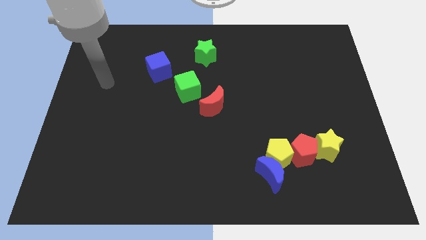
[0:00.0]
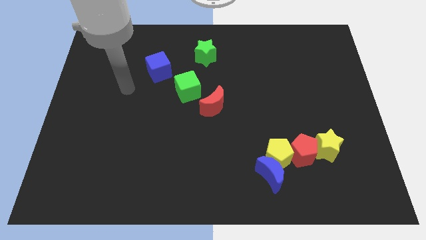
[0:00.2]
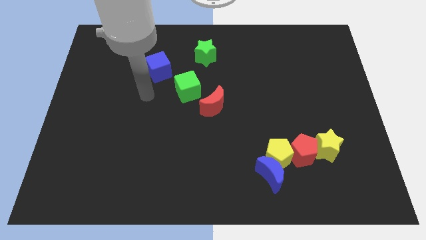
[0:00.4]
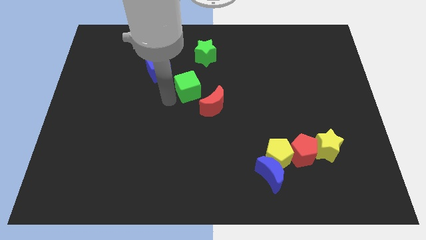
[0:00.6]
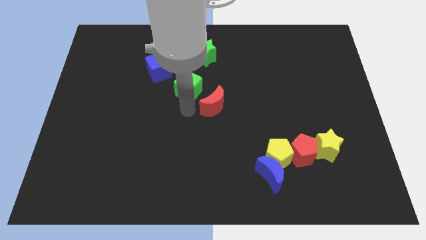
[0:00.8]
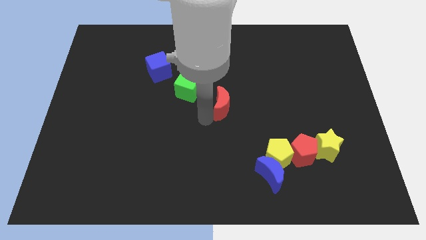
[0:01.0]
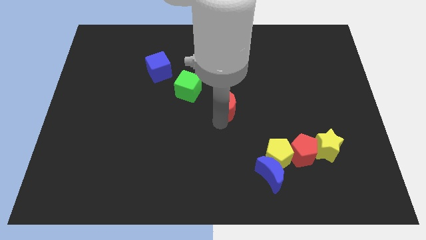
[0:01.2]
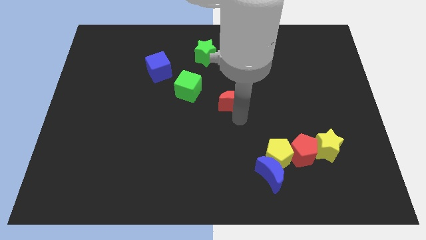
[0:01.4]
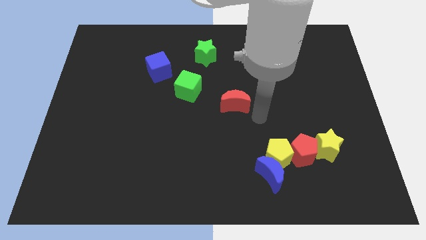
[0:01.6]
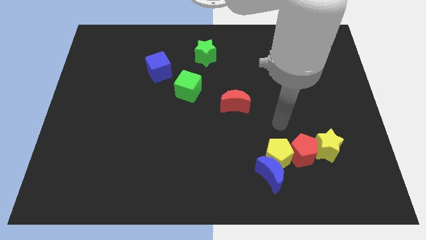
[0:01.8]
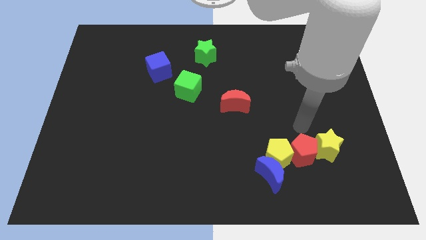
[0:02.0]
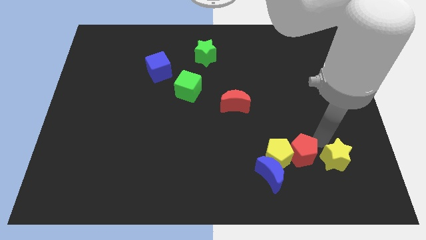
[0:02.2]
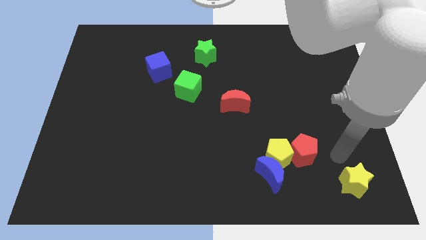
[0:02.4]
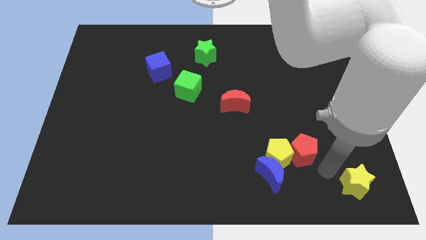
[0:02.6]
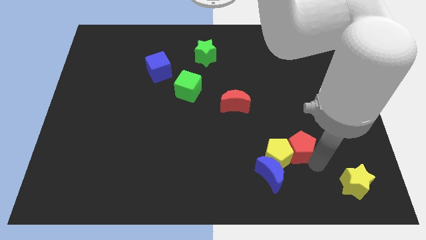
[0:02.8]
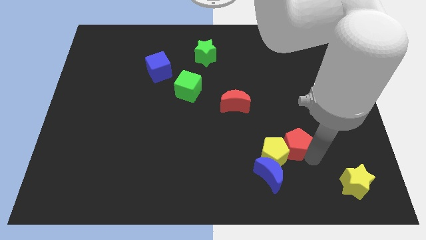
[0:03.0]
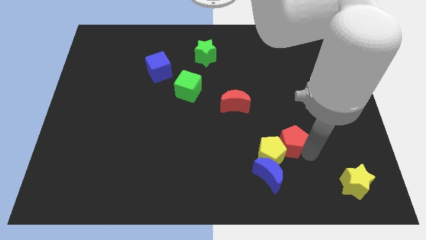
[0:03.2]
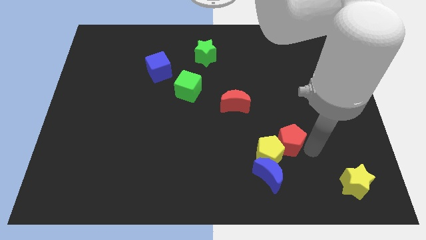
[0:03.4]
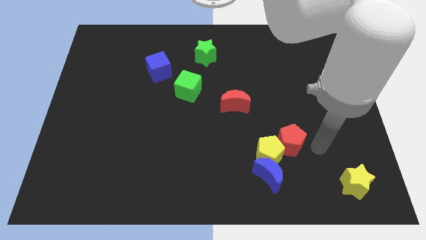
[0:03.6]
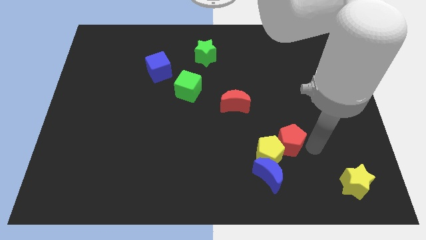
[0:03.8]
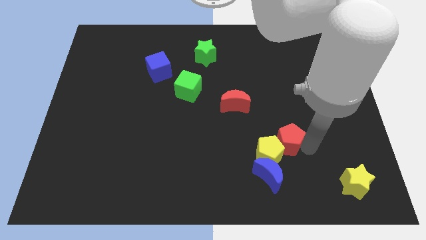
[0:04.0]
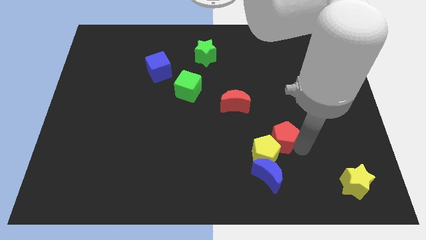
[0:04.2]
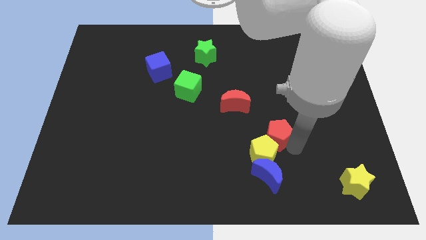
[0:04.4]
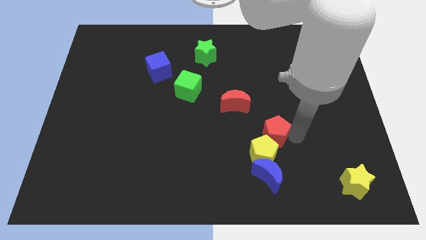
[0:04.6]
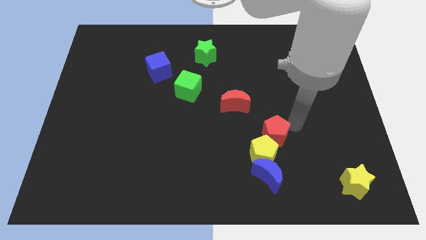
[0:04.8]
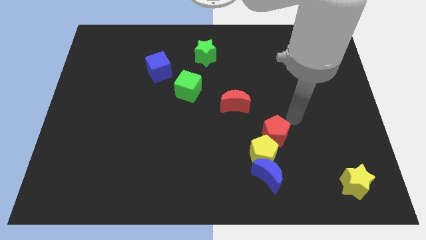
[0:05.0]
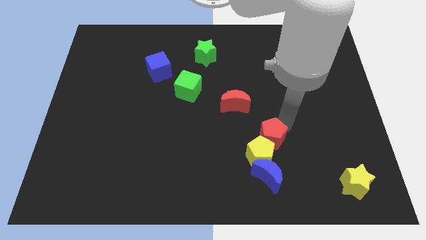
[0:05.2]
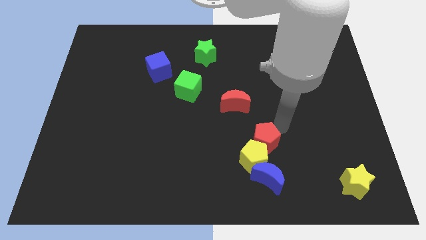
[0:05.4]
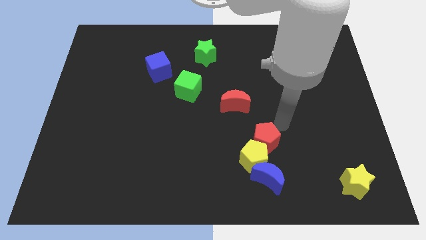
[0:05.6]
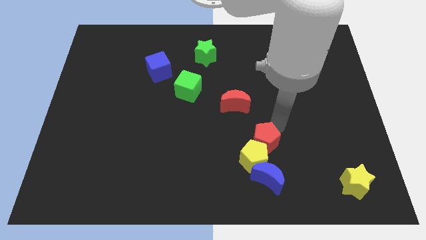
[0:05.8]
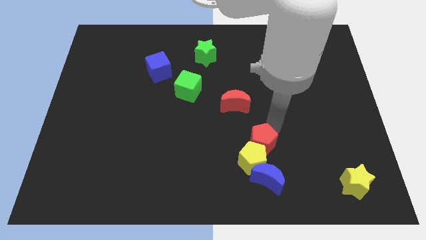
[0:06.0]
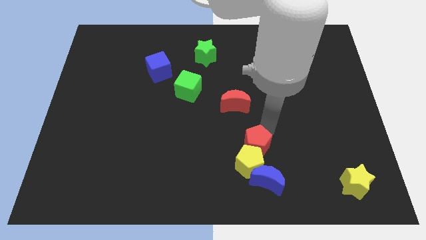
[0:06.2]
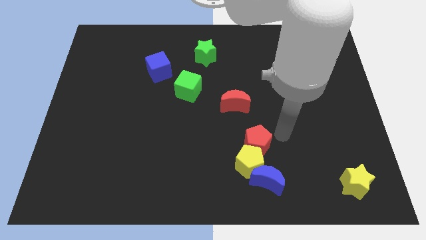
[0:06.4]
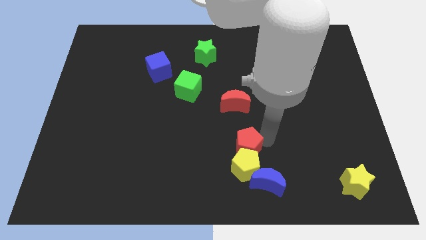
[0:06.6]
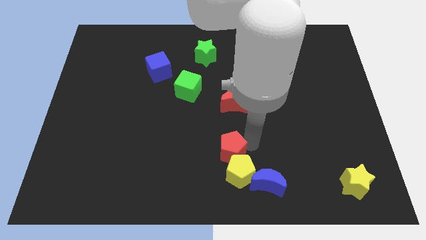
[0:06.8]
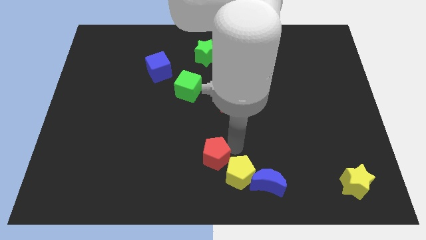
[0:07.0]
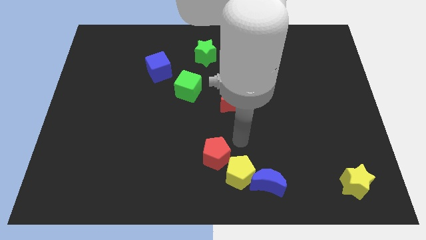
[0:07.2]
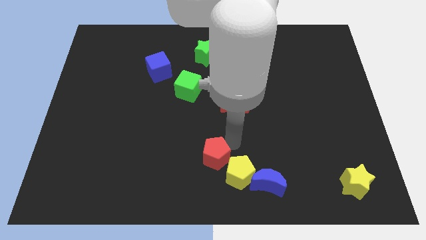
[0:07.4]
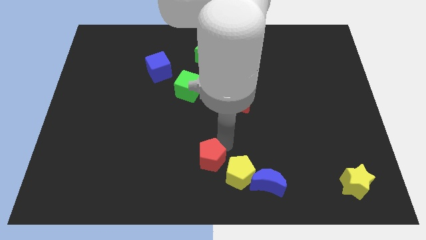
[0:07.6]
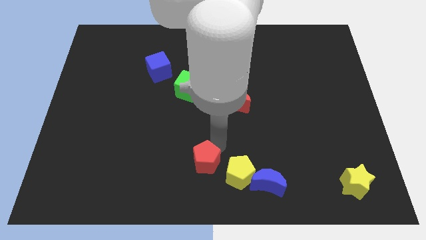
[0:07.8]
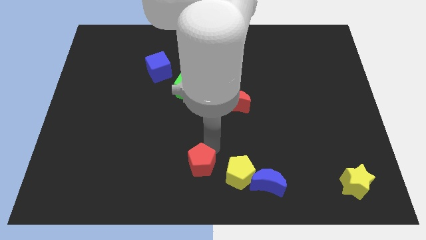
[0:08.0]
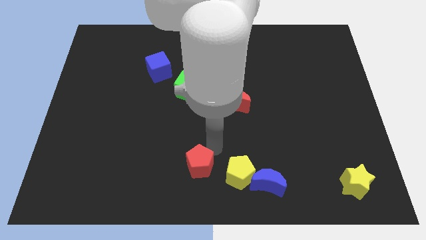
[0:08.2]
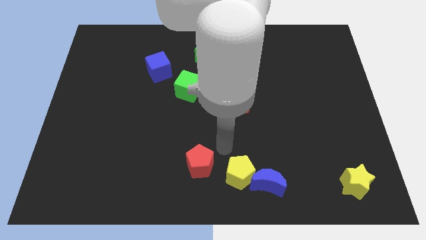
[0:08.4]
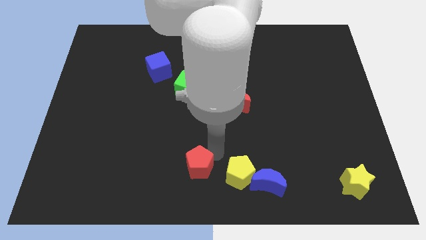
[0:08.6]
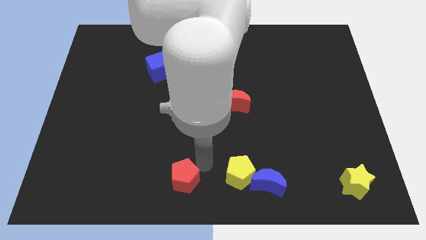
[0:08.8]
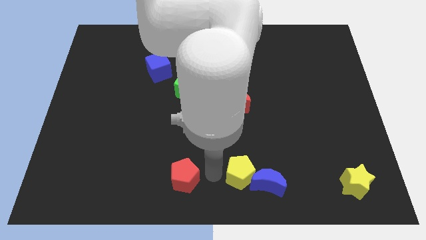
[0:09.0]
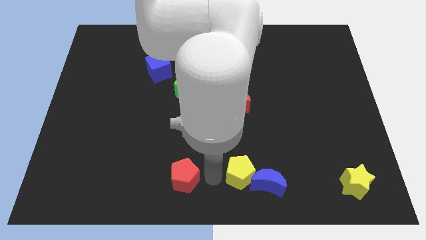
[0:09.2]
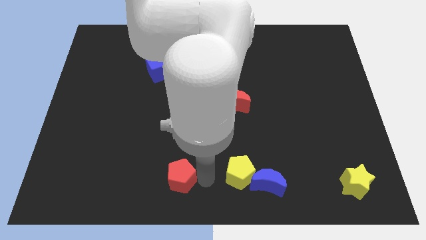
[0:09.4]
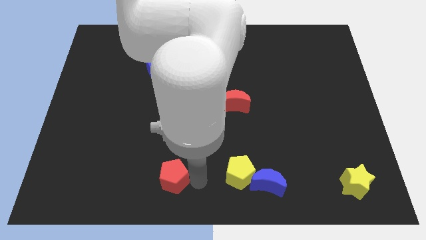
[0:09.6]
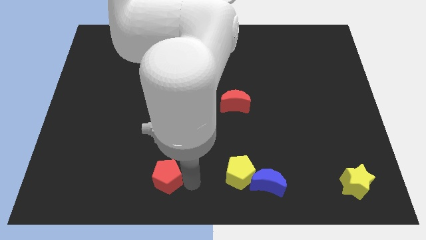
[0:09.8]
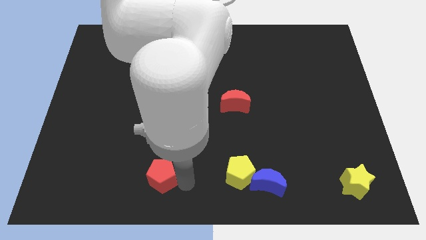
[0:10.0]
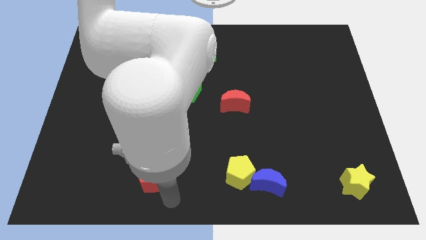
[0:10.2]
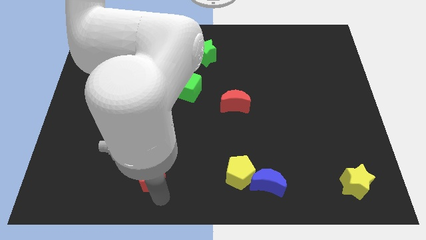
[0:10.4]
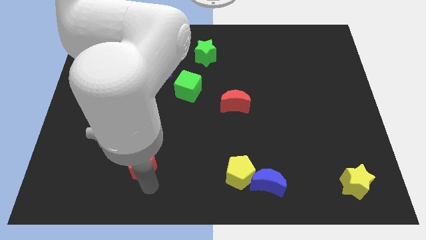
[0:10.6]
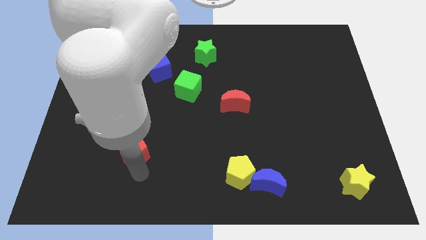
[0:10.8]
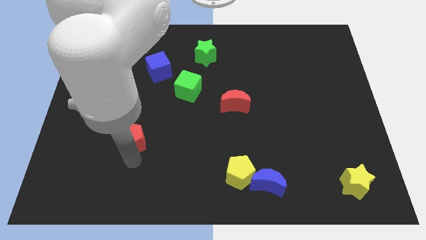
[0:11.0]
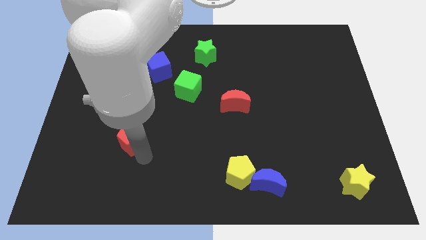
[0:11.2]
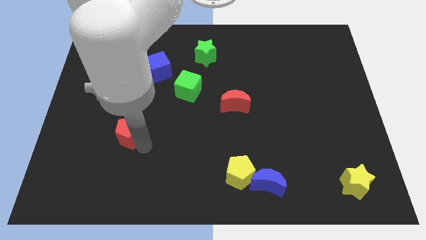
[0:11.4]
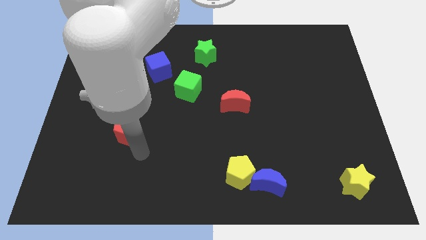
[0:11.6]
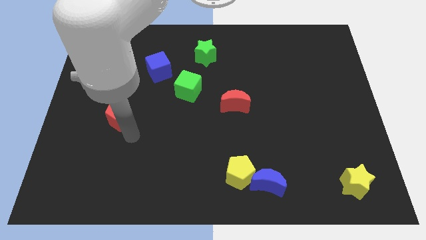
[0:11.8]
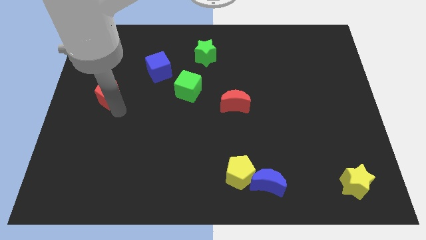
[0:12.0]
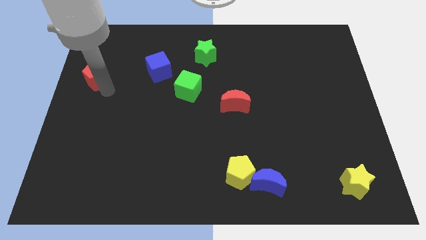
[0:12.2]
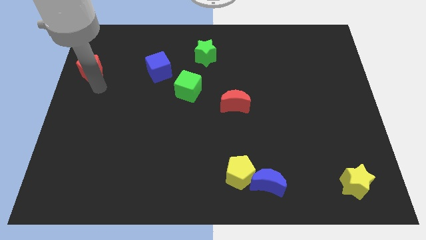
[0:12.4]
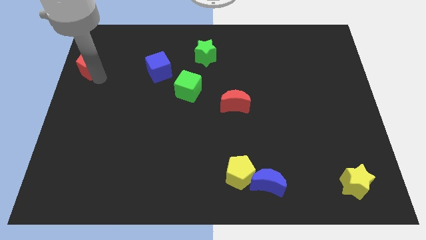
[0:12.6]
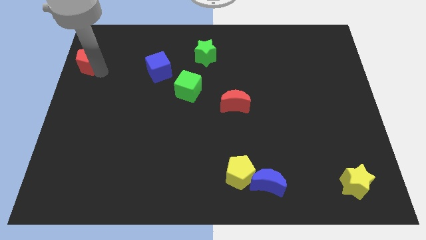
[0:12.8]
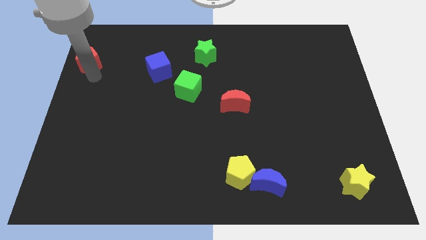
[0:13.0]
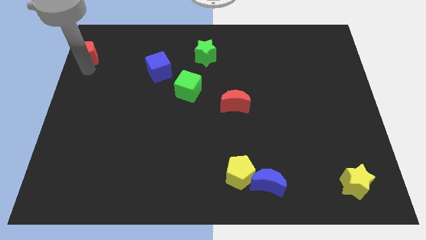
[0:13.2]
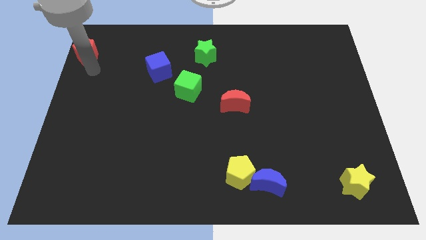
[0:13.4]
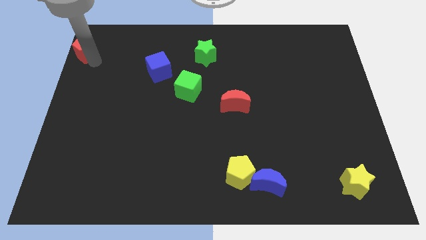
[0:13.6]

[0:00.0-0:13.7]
push the red pentagon to the top left of the board

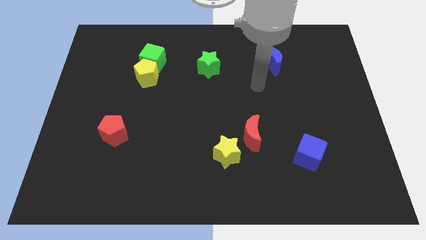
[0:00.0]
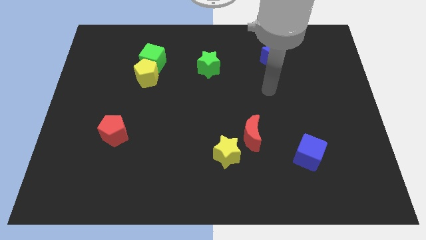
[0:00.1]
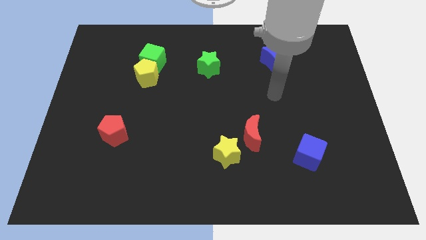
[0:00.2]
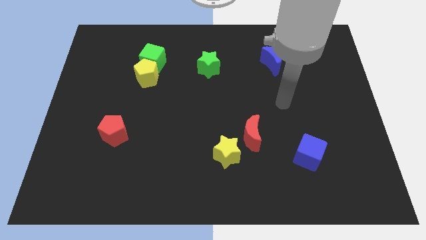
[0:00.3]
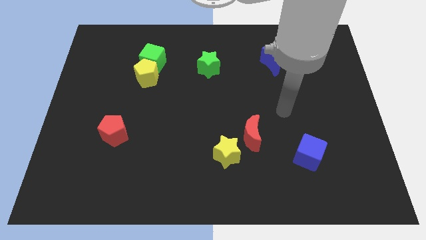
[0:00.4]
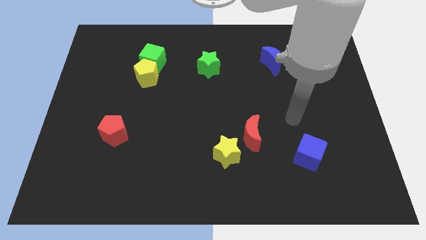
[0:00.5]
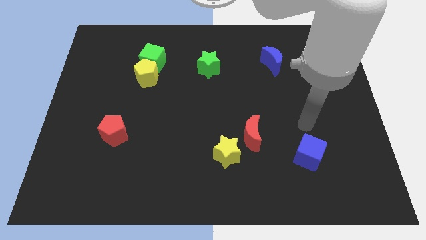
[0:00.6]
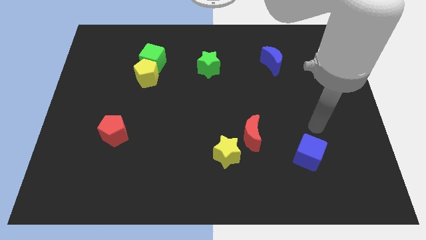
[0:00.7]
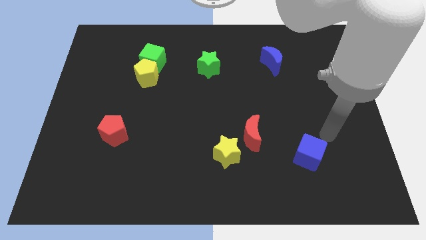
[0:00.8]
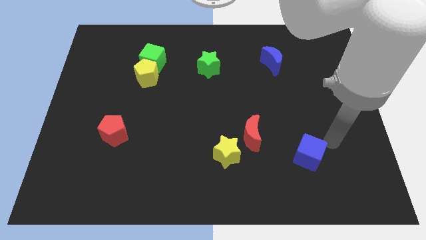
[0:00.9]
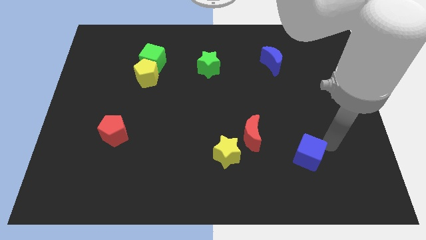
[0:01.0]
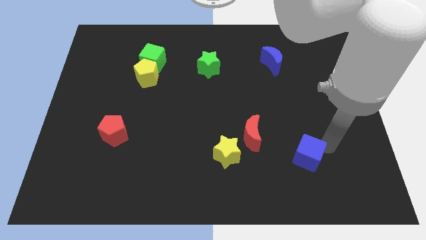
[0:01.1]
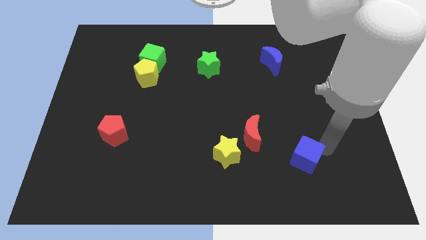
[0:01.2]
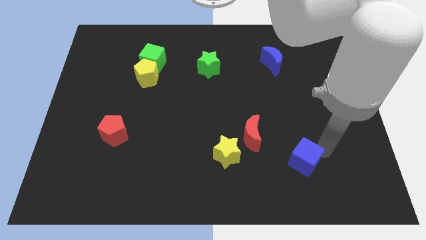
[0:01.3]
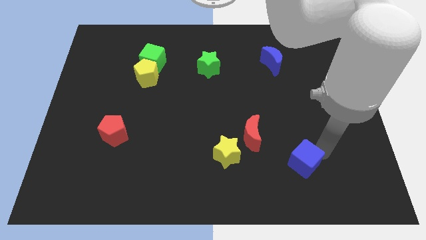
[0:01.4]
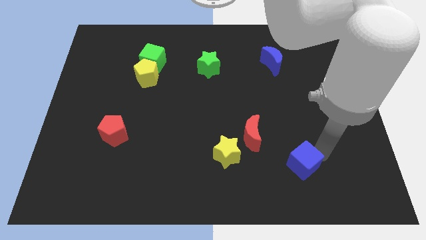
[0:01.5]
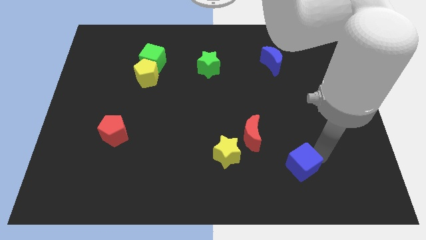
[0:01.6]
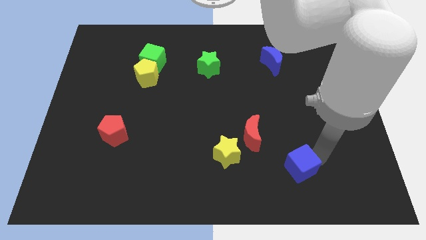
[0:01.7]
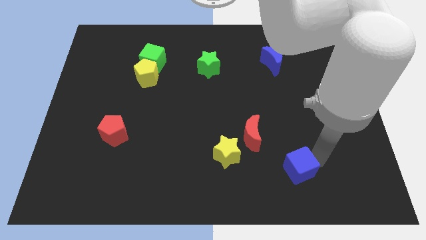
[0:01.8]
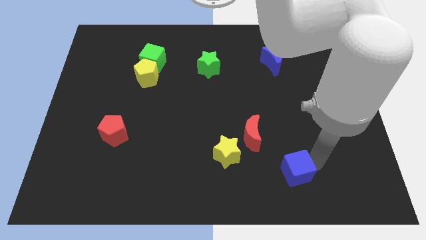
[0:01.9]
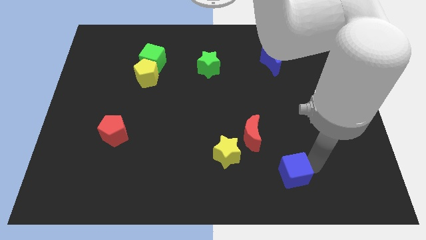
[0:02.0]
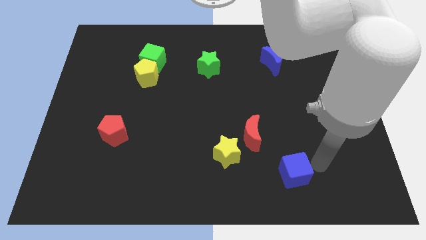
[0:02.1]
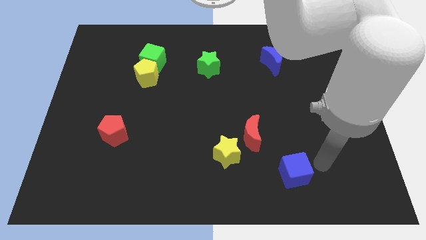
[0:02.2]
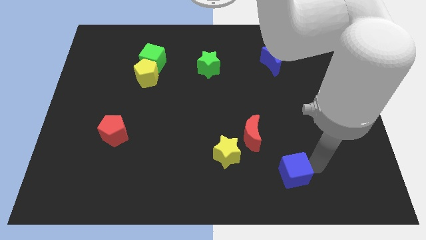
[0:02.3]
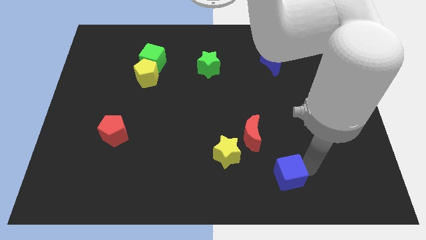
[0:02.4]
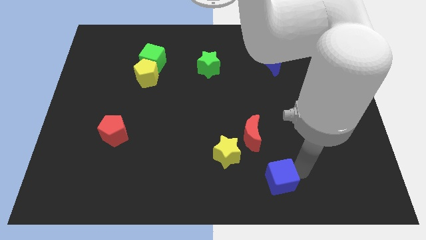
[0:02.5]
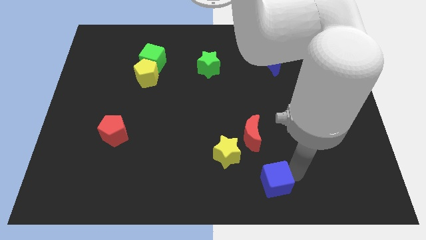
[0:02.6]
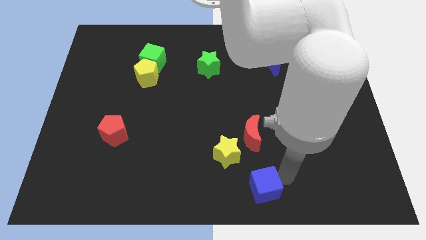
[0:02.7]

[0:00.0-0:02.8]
slide the blue cube to the bottom
